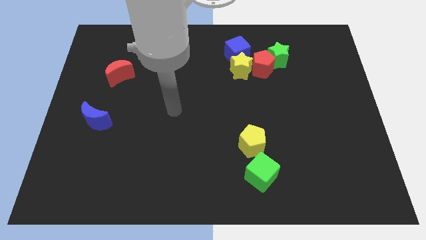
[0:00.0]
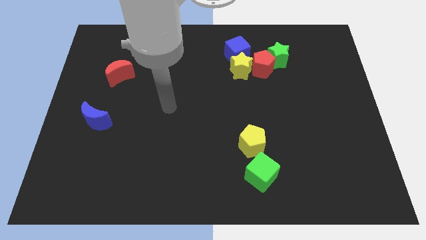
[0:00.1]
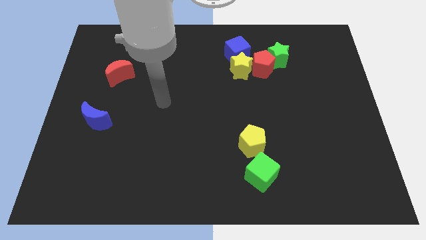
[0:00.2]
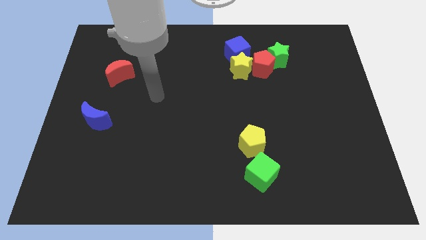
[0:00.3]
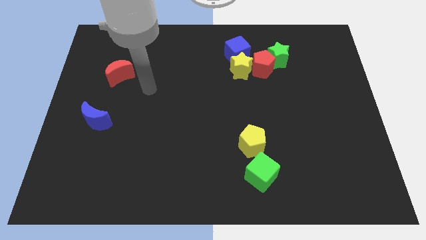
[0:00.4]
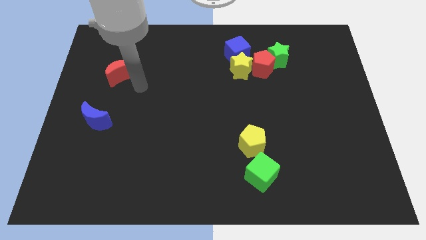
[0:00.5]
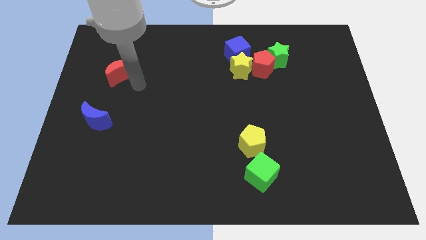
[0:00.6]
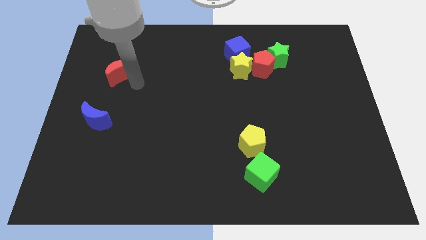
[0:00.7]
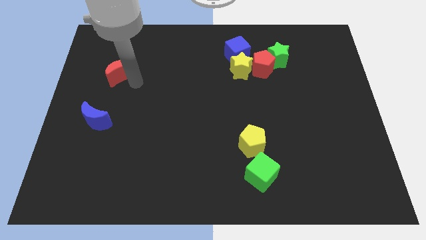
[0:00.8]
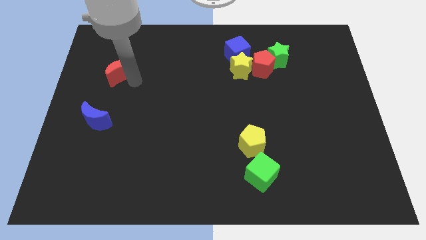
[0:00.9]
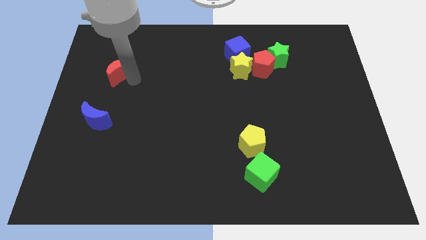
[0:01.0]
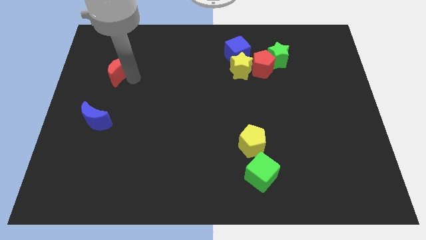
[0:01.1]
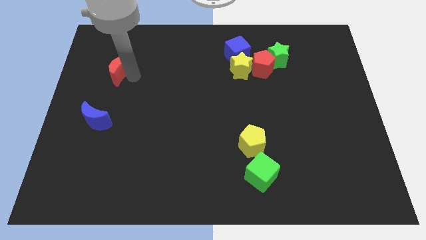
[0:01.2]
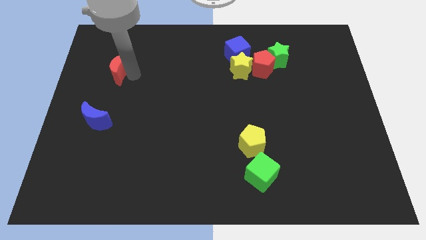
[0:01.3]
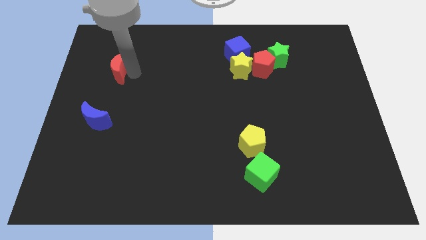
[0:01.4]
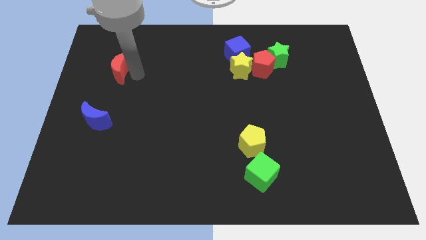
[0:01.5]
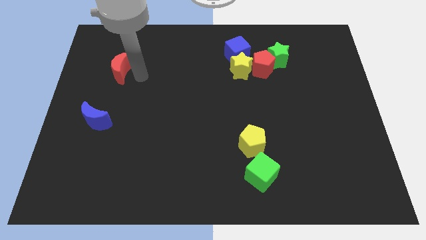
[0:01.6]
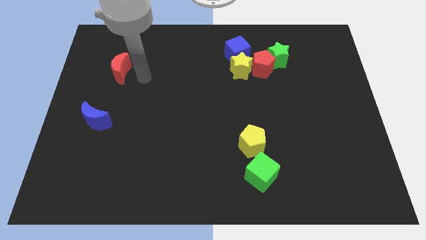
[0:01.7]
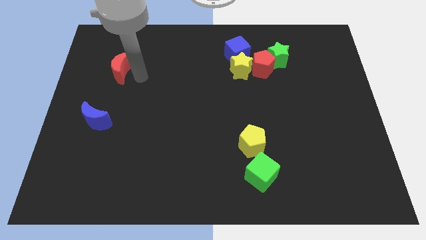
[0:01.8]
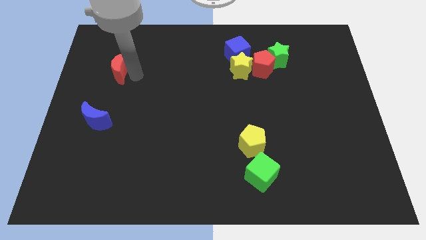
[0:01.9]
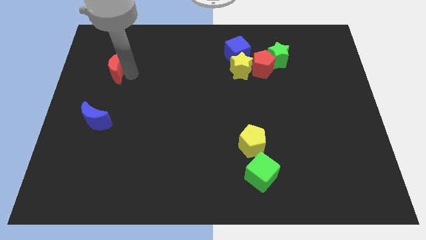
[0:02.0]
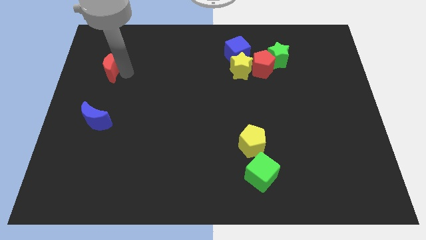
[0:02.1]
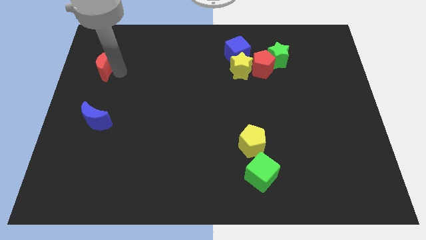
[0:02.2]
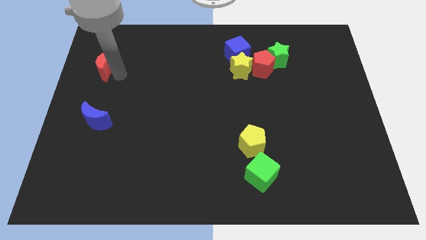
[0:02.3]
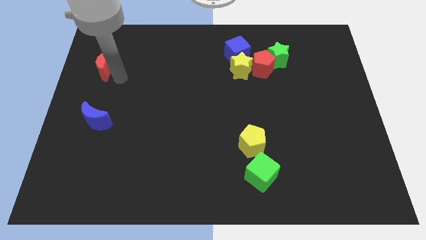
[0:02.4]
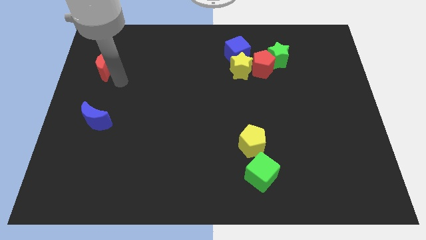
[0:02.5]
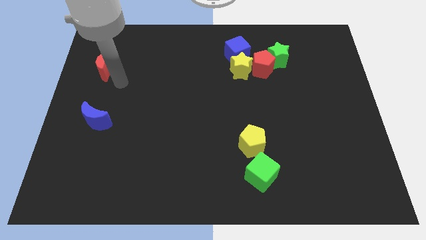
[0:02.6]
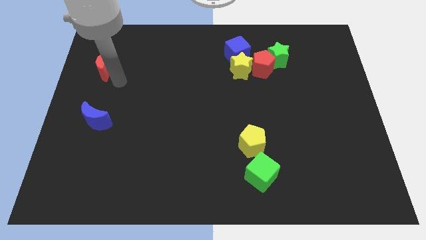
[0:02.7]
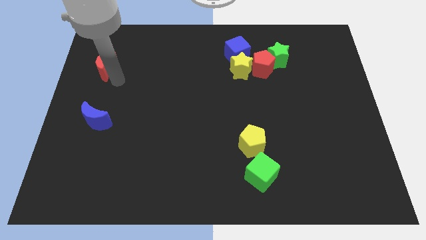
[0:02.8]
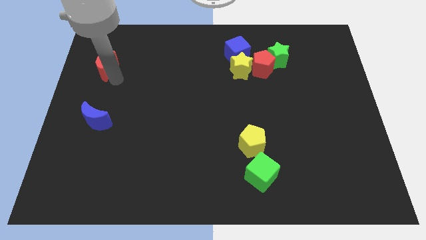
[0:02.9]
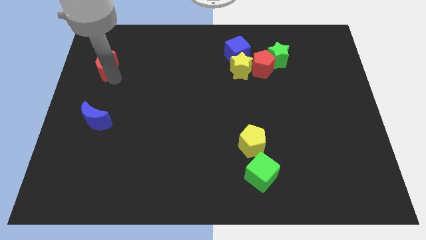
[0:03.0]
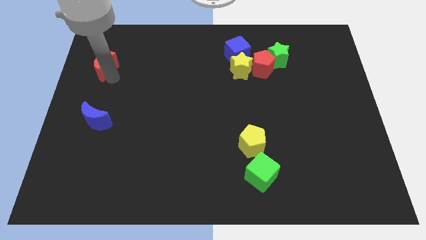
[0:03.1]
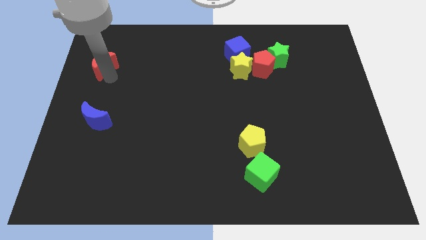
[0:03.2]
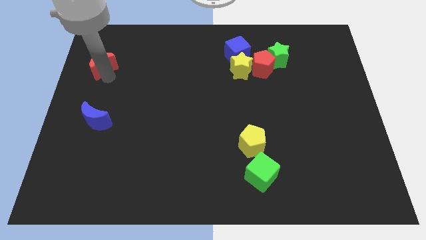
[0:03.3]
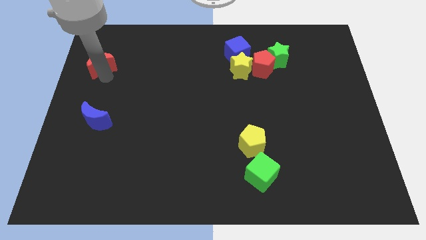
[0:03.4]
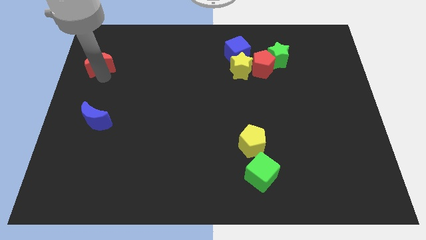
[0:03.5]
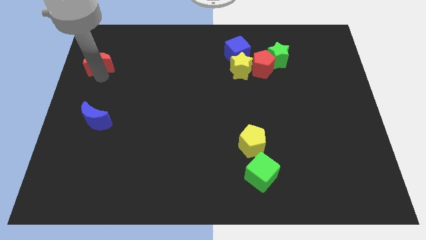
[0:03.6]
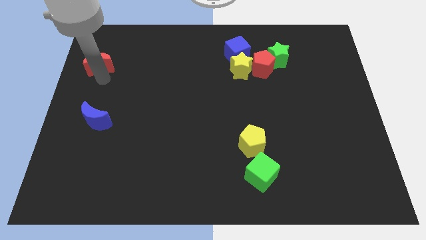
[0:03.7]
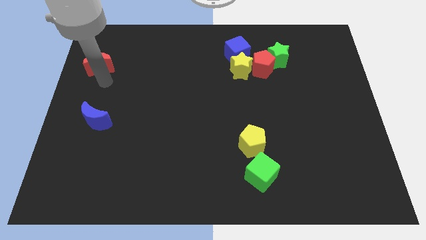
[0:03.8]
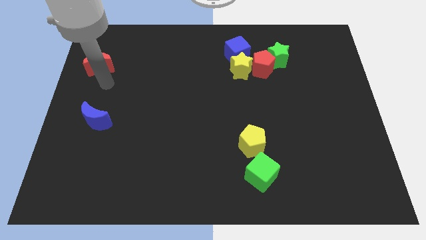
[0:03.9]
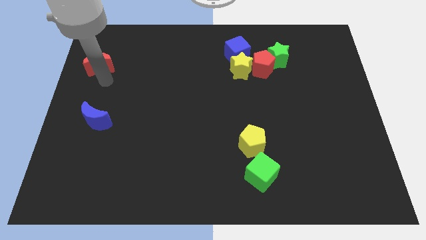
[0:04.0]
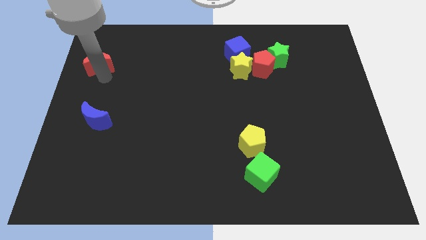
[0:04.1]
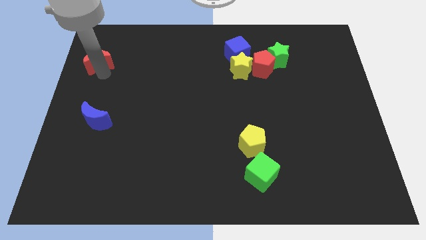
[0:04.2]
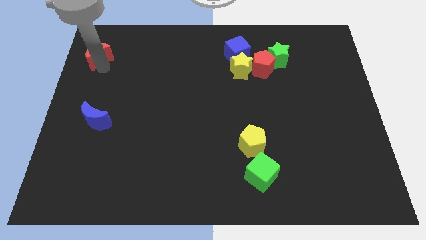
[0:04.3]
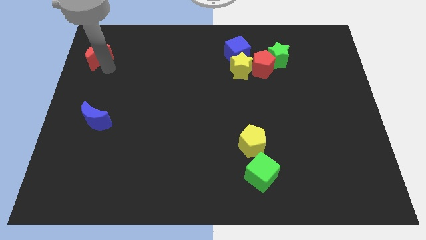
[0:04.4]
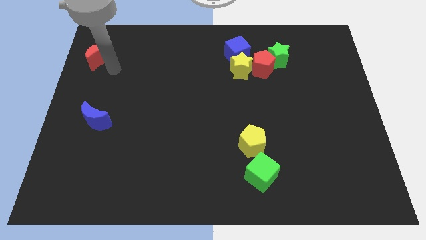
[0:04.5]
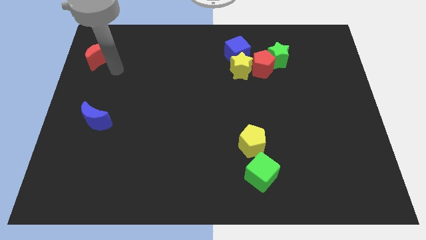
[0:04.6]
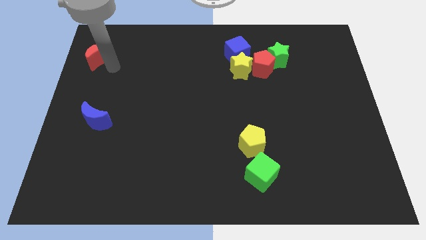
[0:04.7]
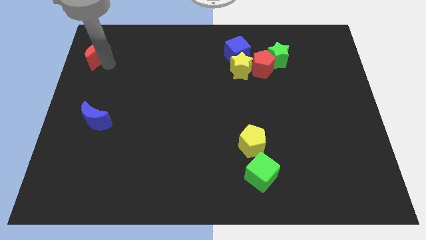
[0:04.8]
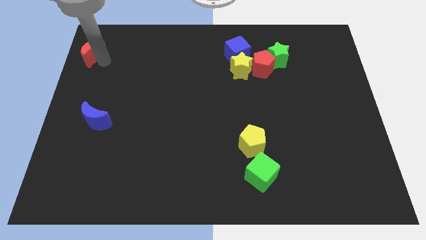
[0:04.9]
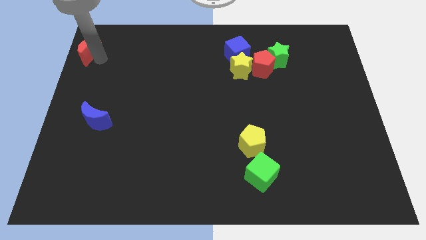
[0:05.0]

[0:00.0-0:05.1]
slide the red moon to the upper left corner

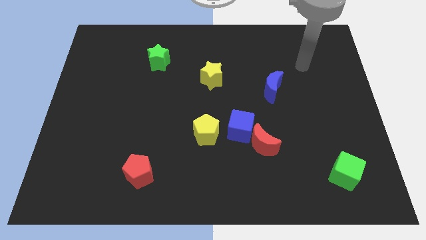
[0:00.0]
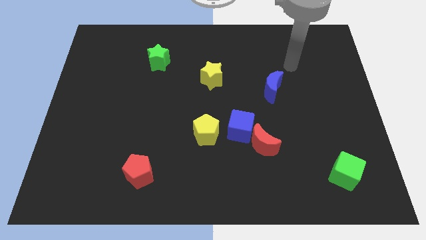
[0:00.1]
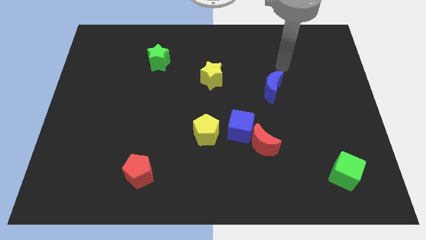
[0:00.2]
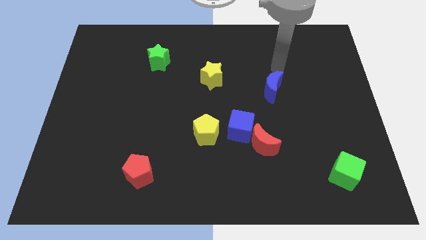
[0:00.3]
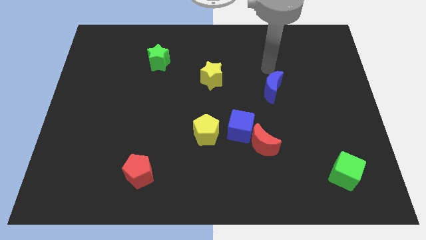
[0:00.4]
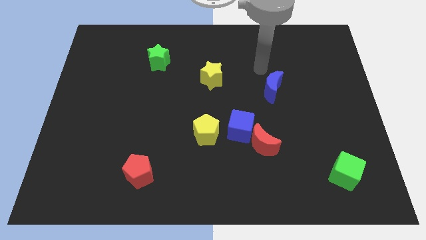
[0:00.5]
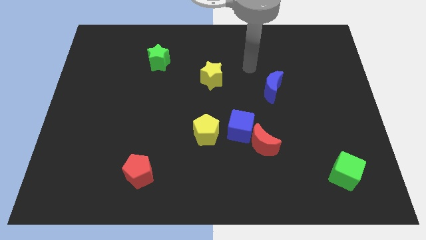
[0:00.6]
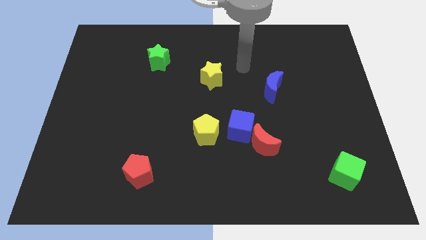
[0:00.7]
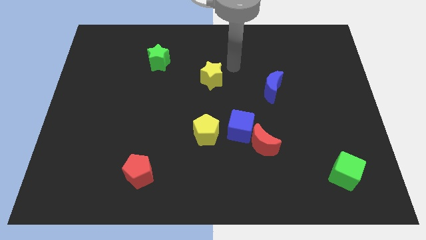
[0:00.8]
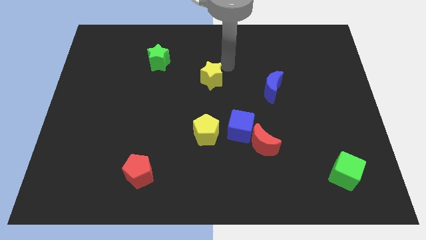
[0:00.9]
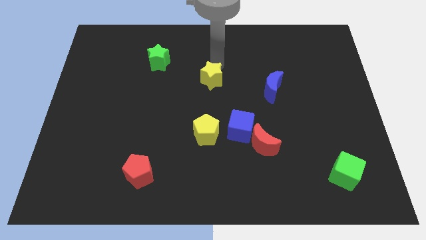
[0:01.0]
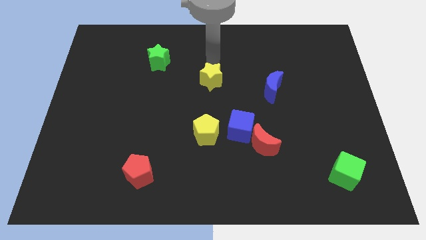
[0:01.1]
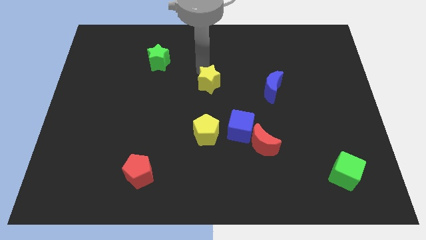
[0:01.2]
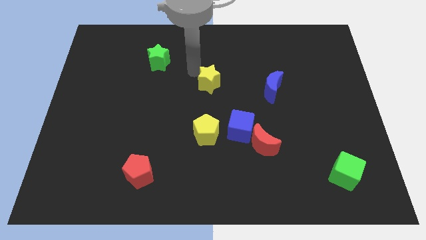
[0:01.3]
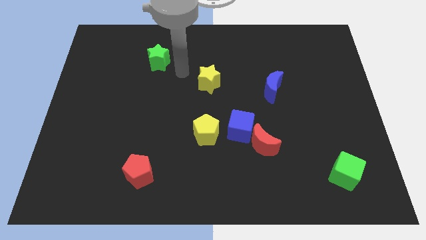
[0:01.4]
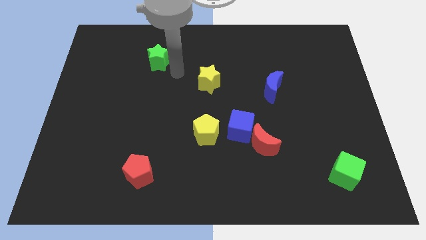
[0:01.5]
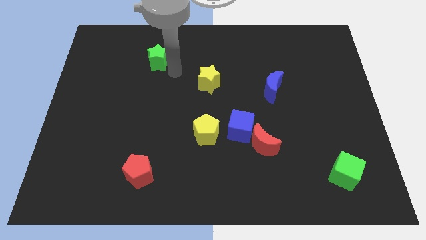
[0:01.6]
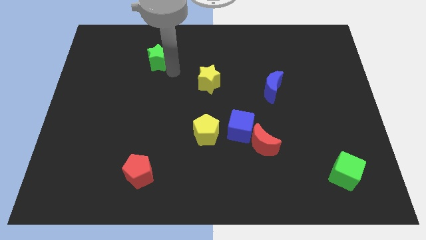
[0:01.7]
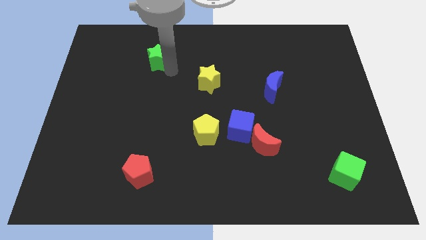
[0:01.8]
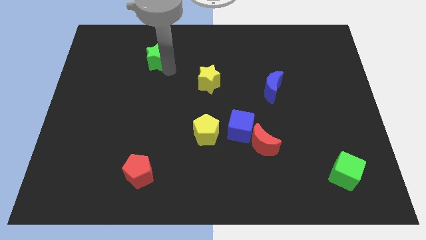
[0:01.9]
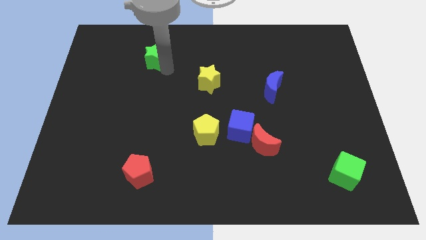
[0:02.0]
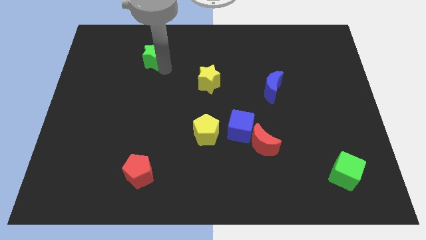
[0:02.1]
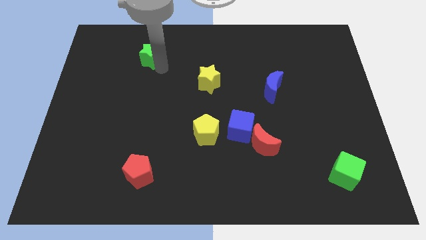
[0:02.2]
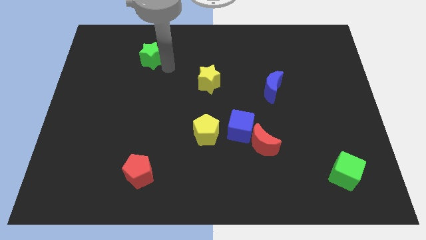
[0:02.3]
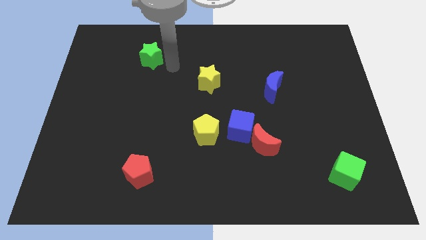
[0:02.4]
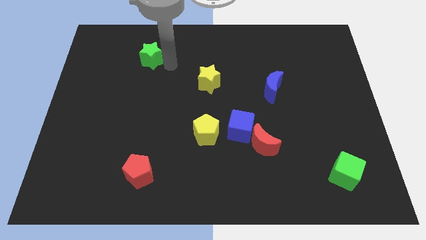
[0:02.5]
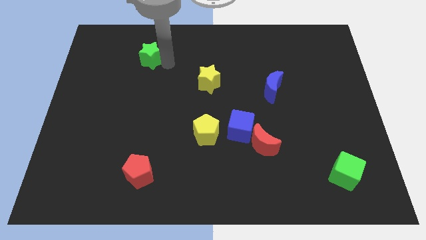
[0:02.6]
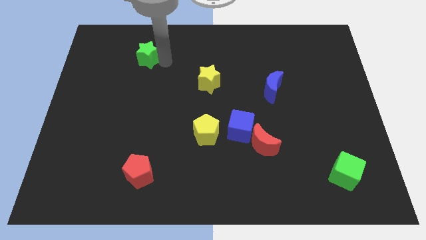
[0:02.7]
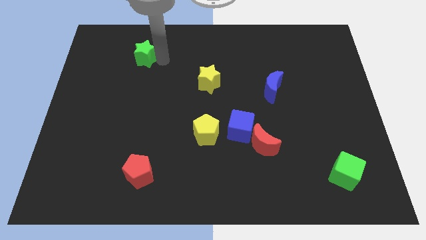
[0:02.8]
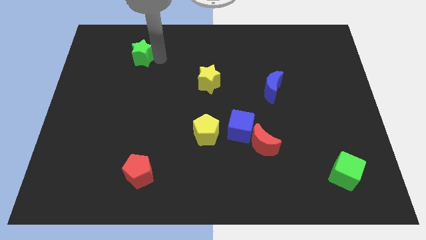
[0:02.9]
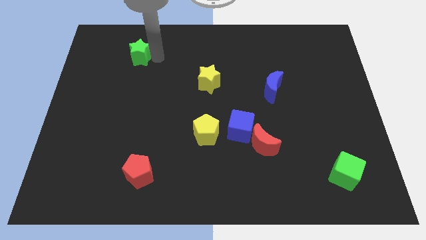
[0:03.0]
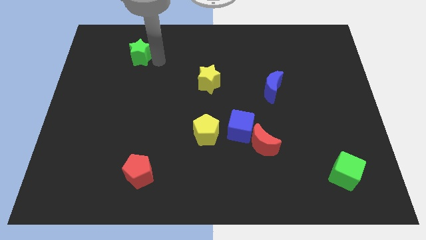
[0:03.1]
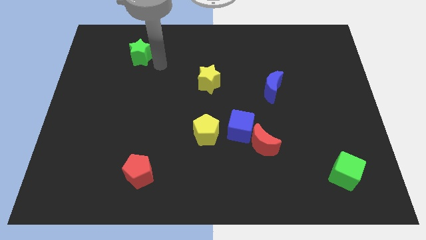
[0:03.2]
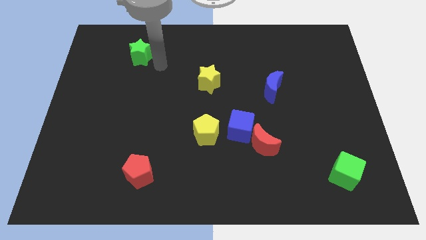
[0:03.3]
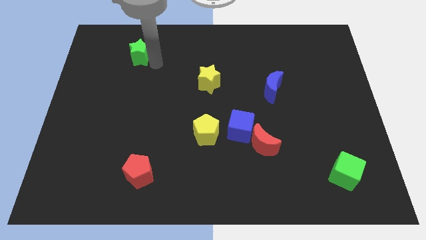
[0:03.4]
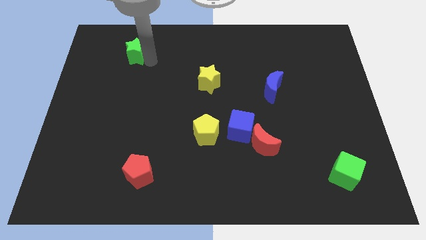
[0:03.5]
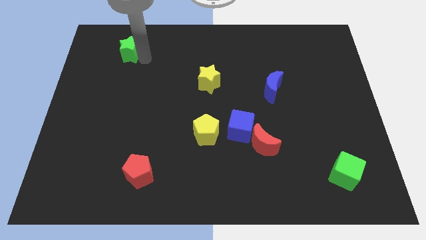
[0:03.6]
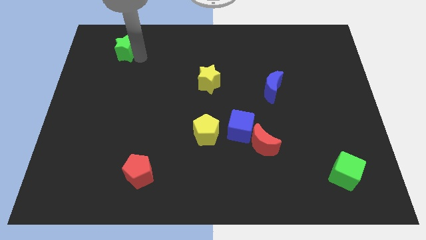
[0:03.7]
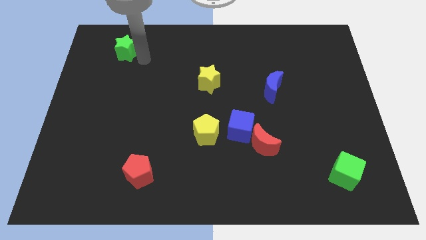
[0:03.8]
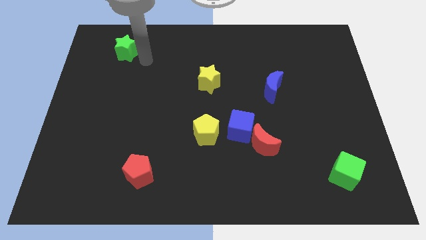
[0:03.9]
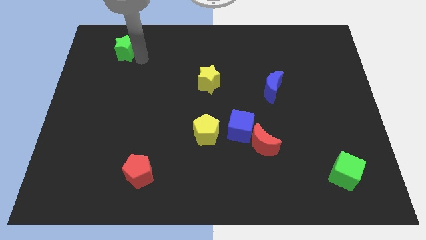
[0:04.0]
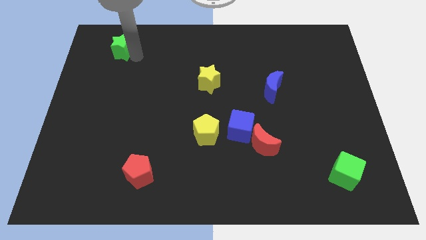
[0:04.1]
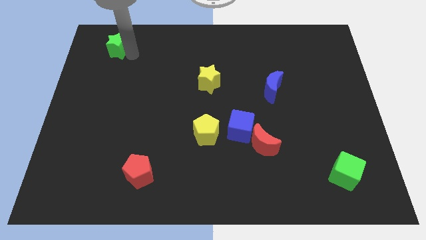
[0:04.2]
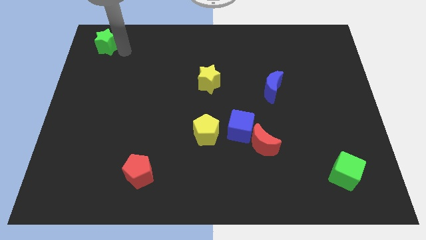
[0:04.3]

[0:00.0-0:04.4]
put the green star to the top left
